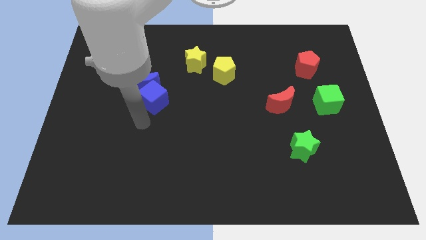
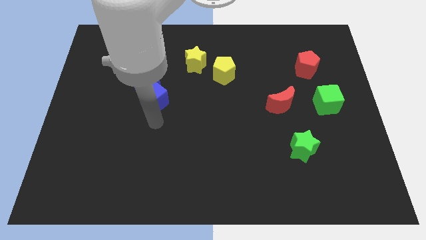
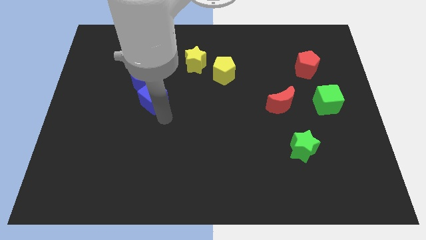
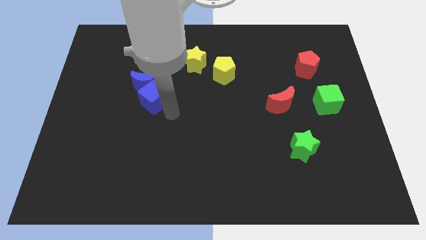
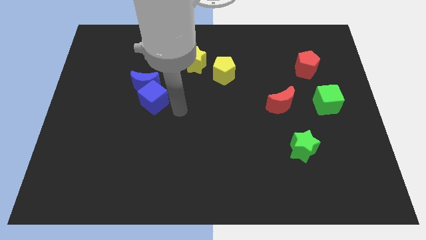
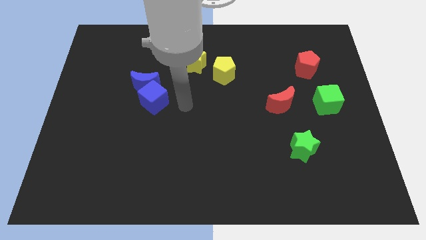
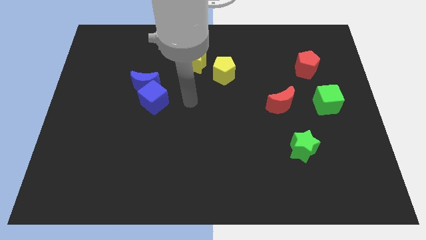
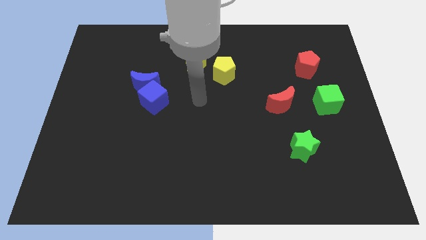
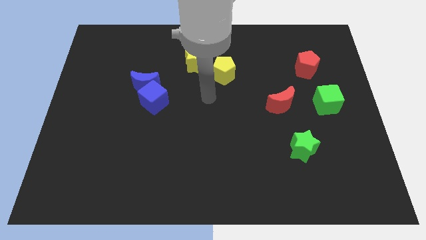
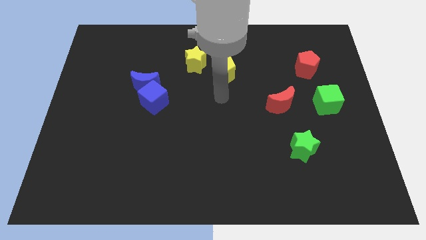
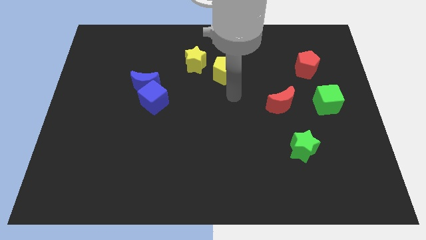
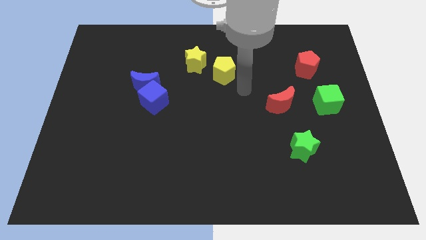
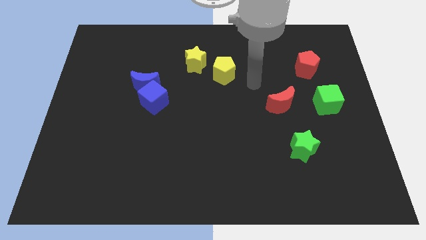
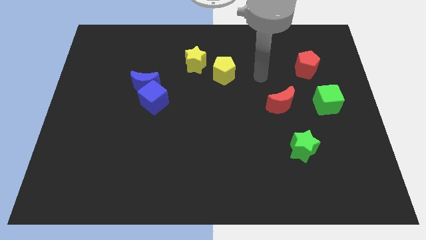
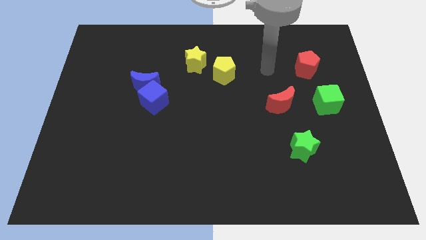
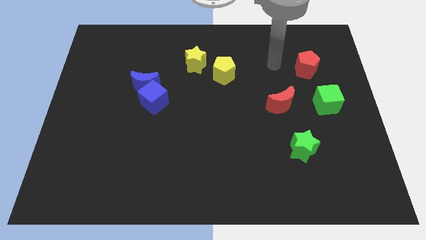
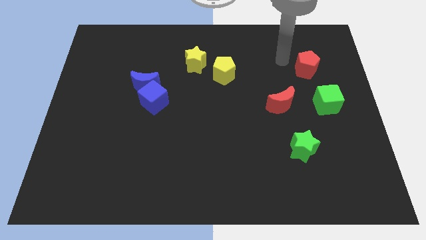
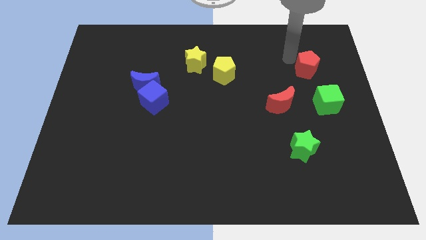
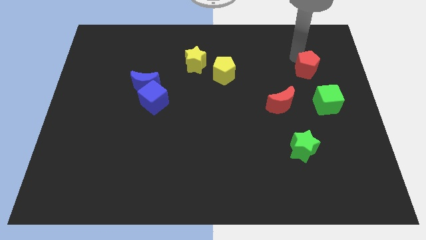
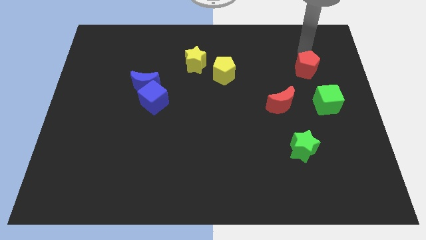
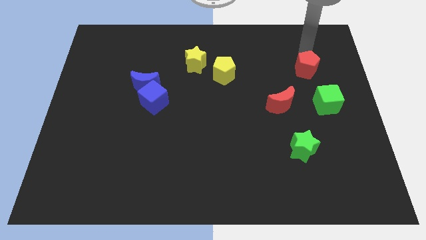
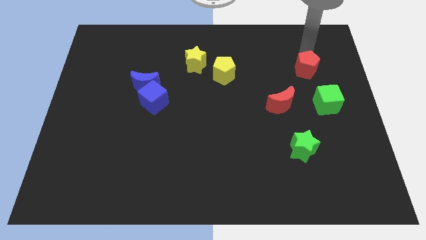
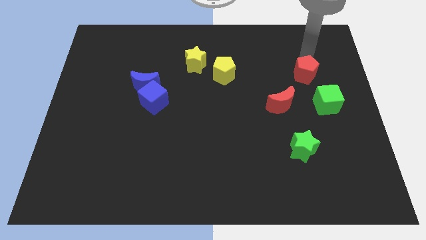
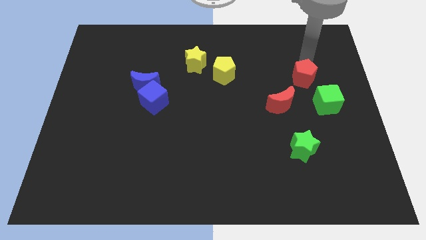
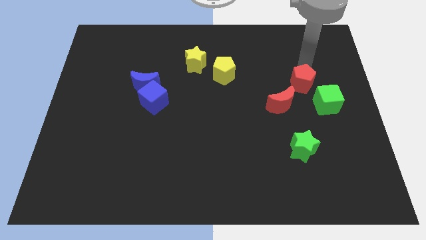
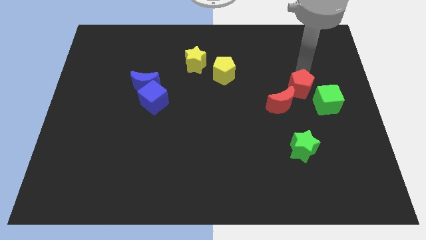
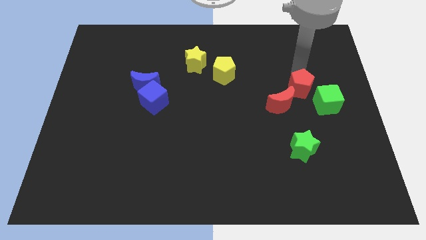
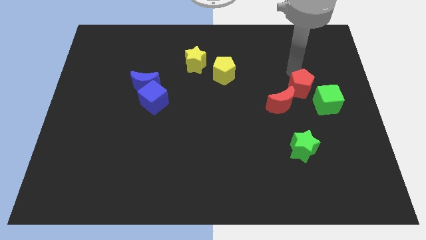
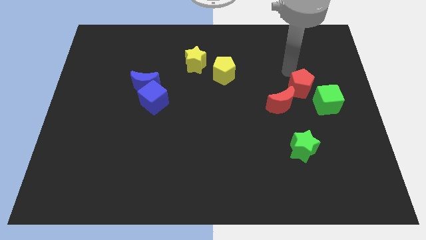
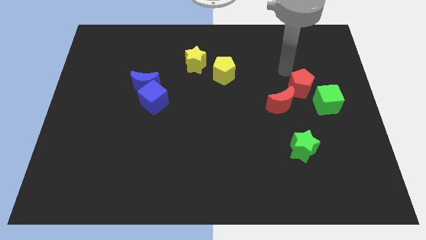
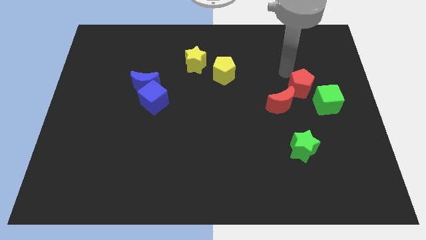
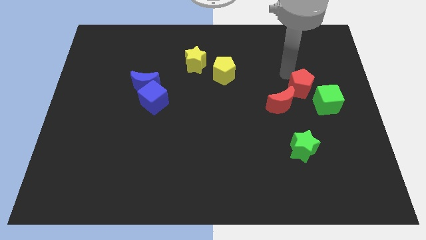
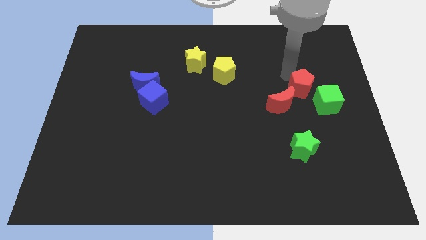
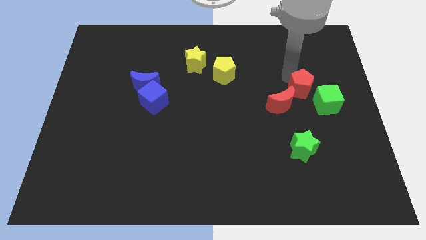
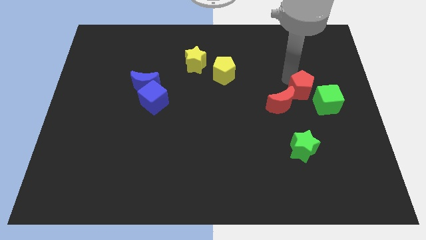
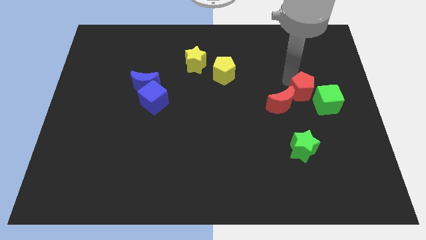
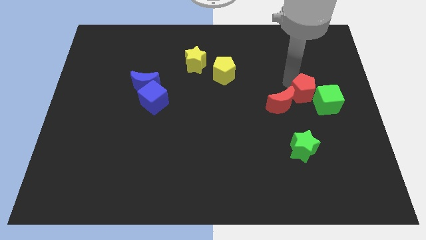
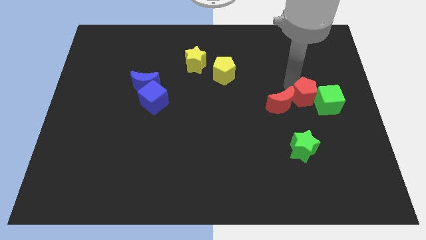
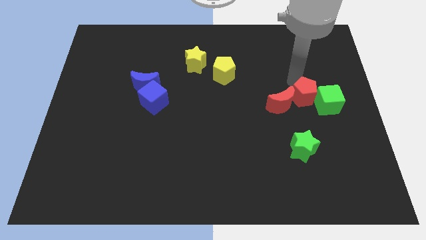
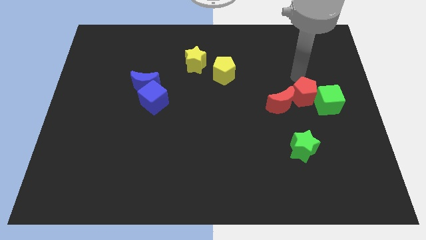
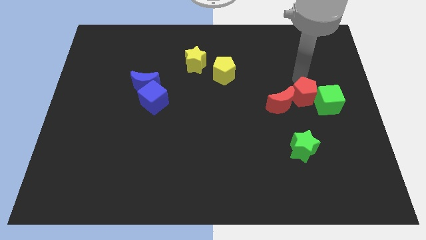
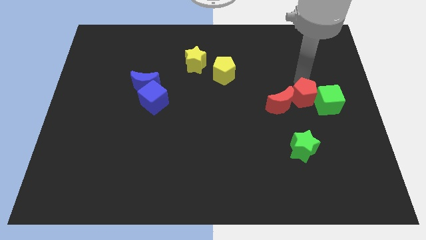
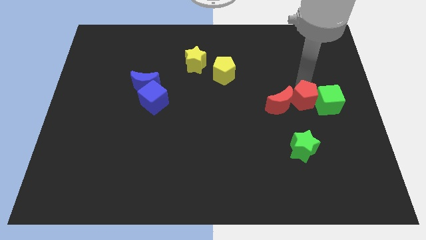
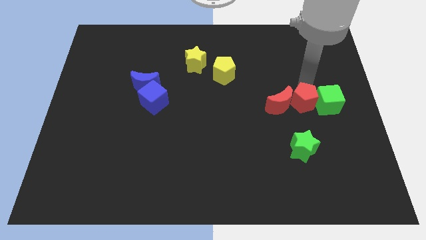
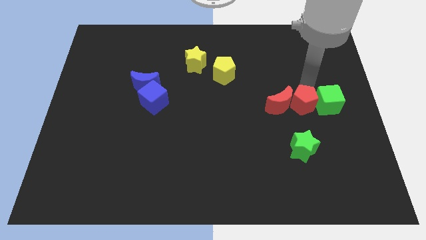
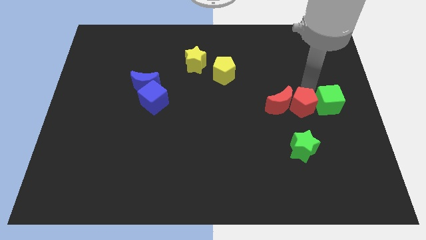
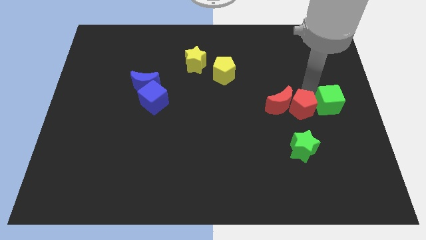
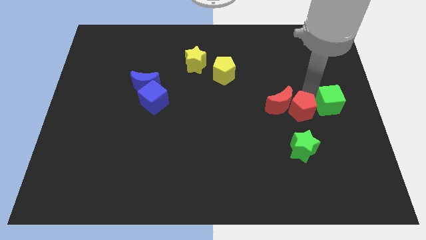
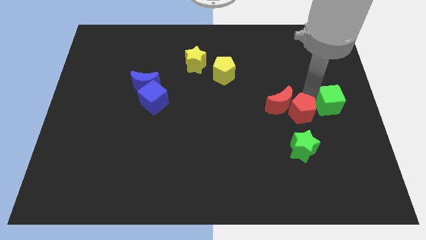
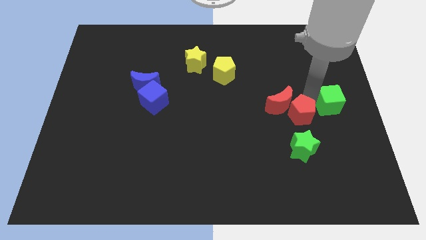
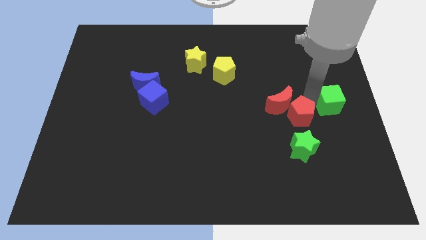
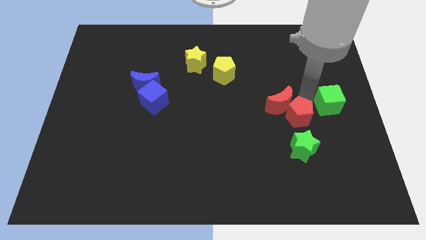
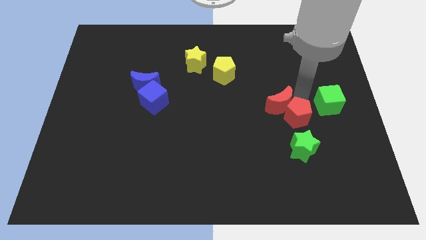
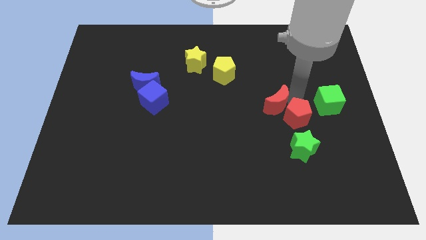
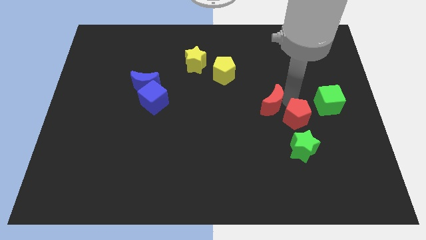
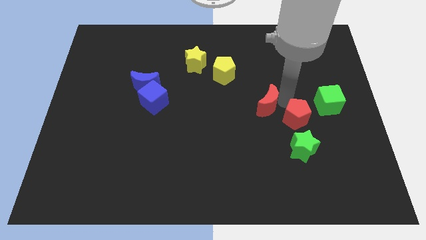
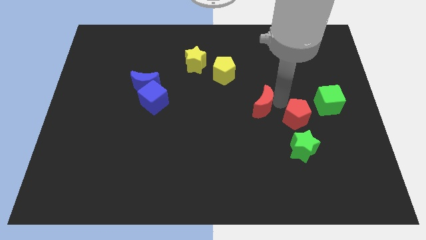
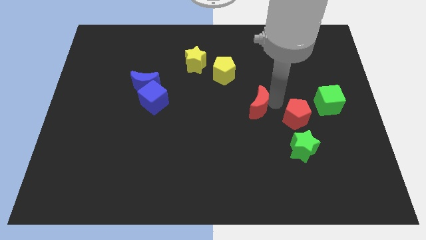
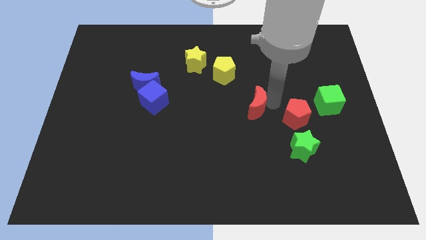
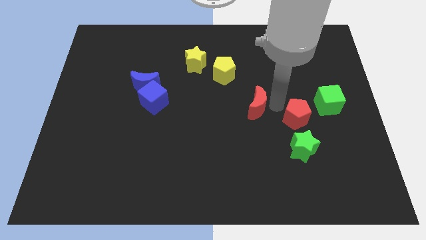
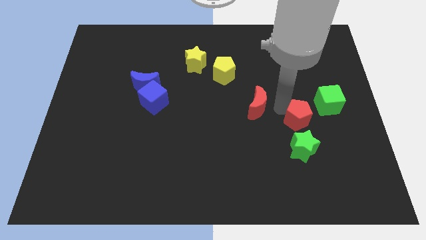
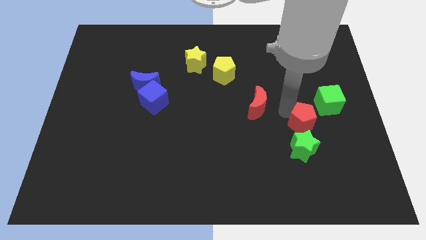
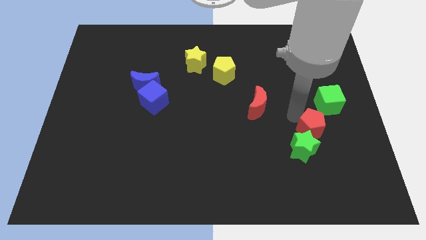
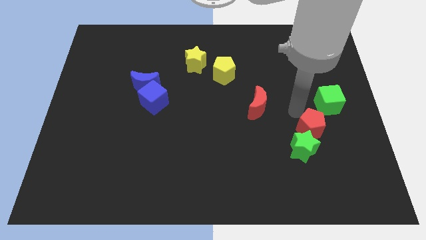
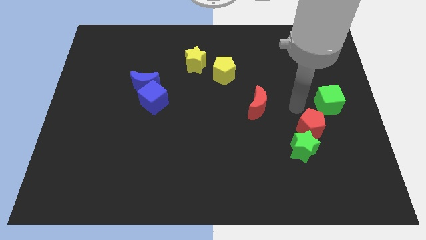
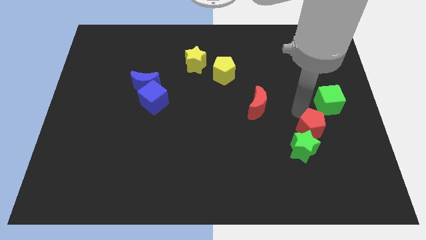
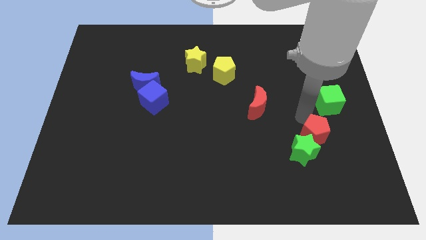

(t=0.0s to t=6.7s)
slide the red pentagon down

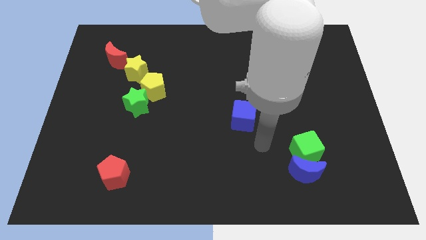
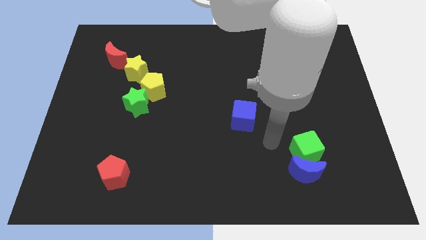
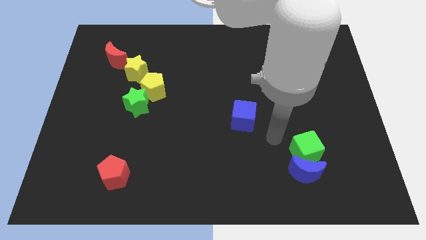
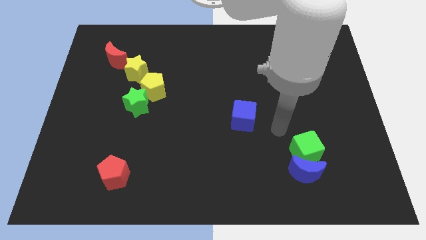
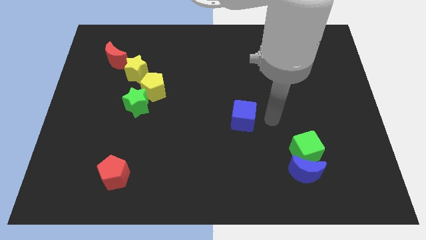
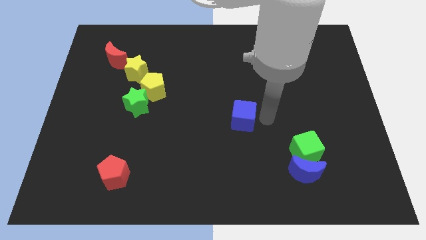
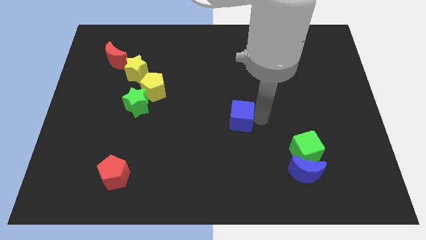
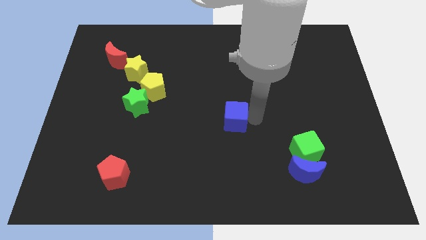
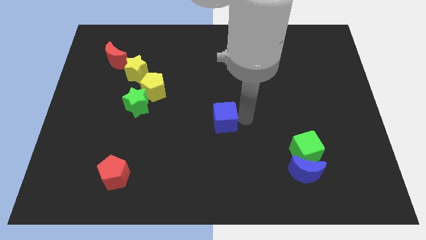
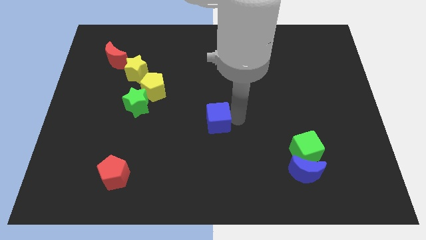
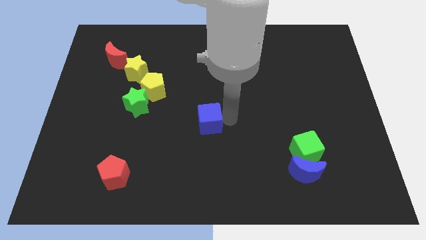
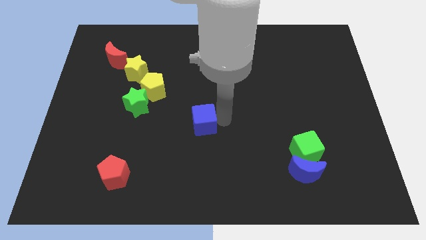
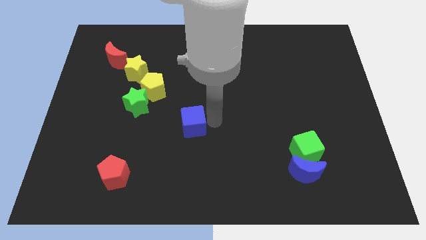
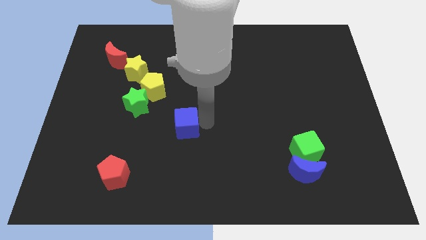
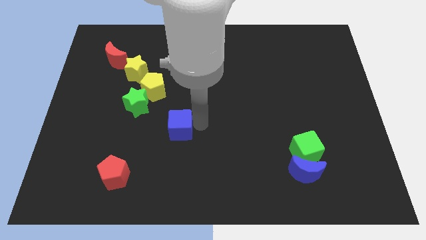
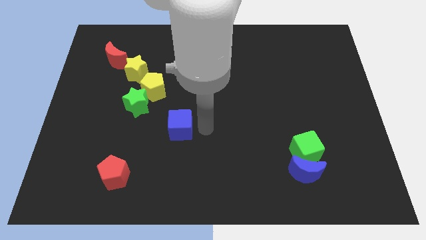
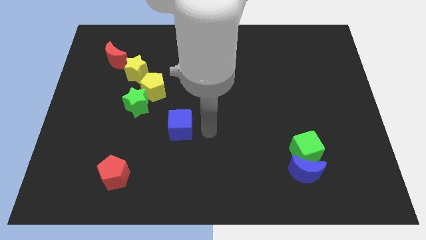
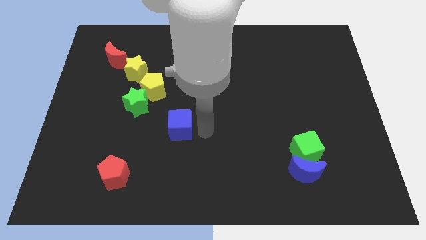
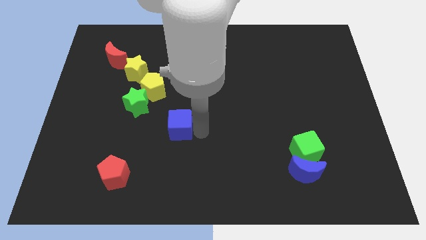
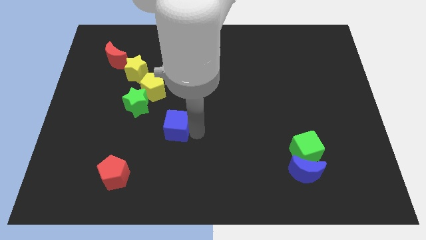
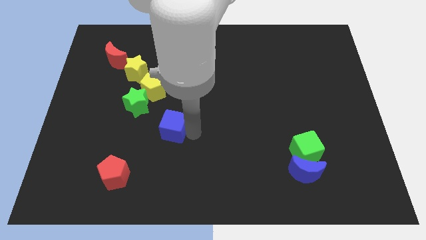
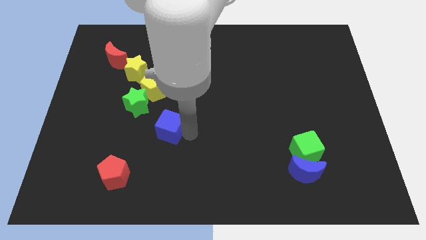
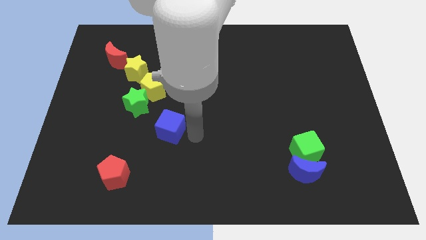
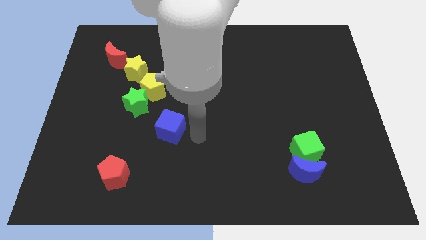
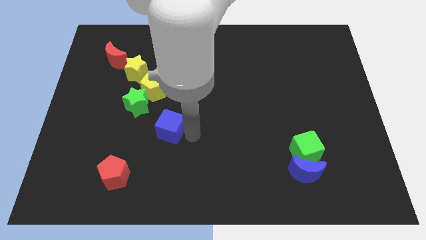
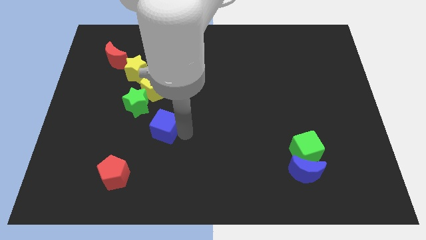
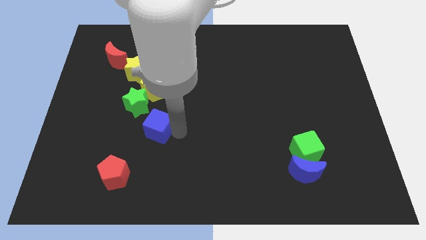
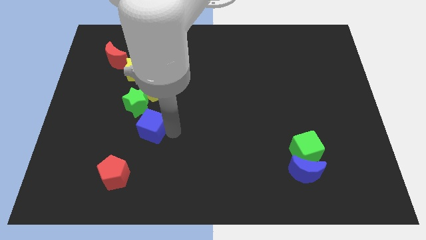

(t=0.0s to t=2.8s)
move the blue cube to the left
